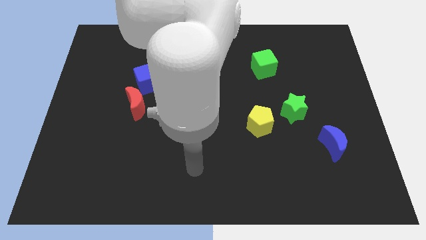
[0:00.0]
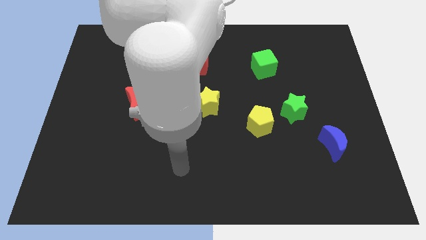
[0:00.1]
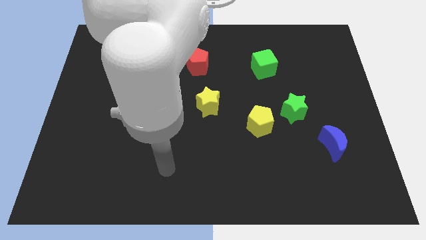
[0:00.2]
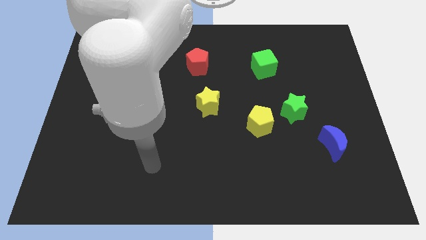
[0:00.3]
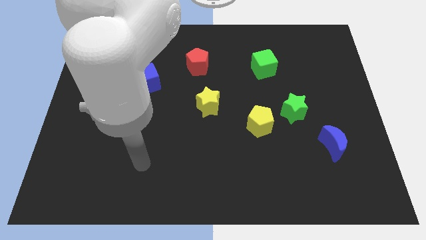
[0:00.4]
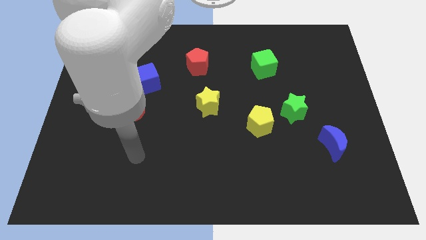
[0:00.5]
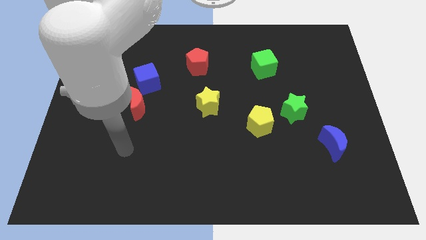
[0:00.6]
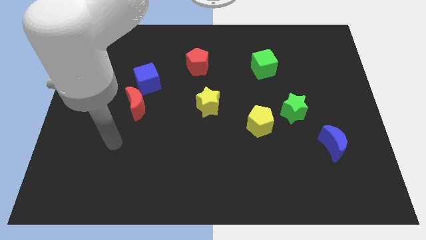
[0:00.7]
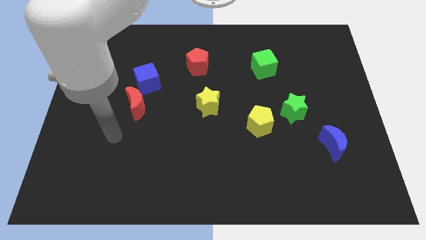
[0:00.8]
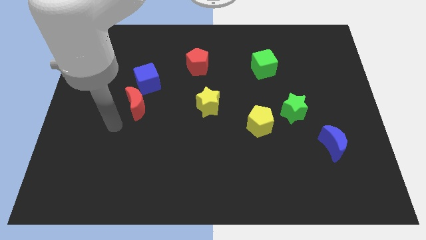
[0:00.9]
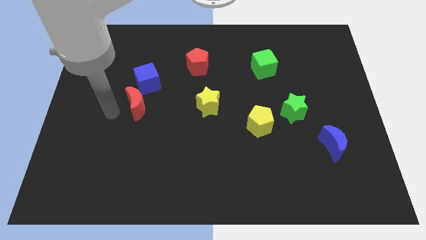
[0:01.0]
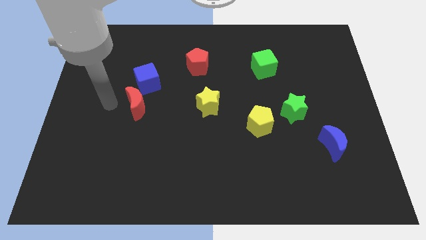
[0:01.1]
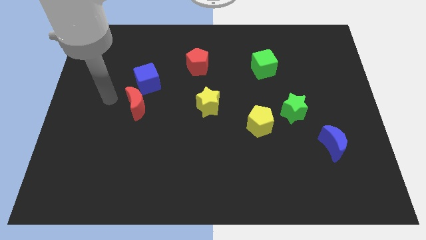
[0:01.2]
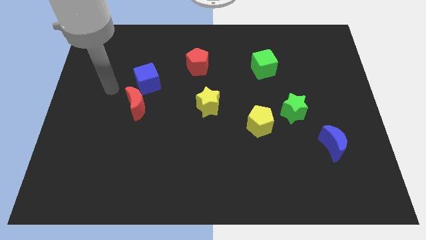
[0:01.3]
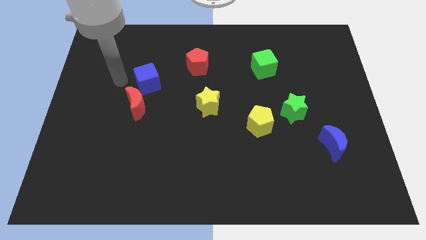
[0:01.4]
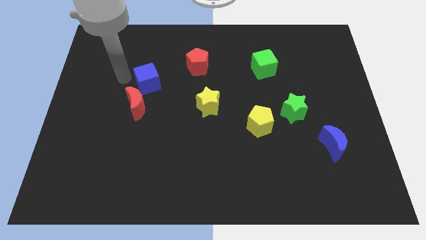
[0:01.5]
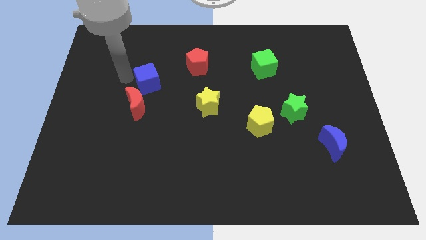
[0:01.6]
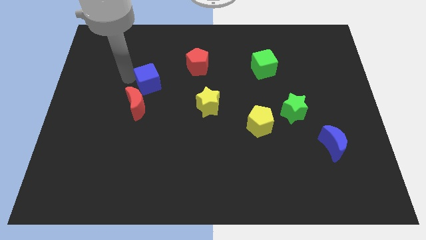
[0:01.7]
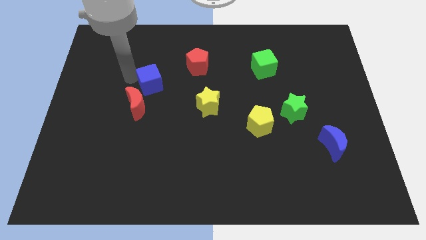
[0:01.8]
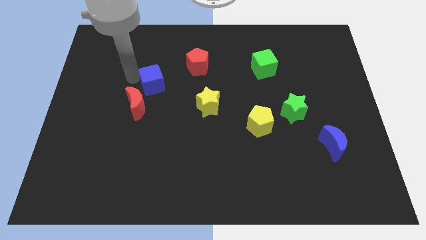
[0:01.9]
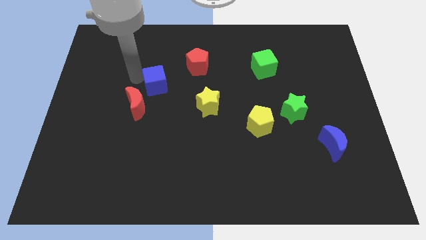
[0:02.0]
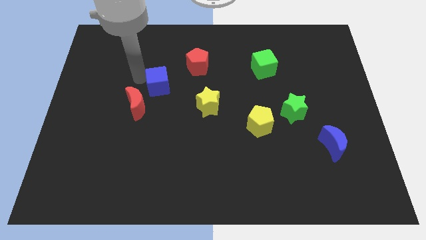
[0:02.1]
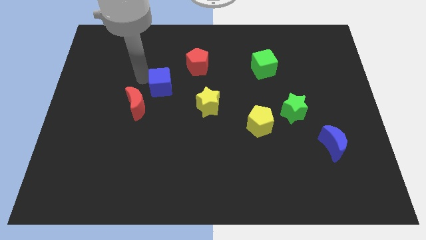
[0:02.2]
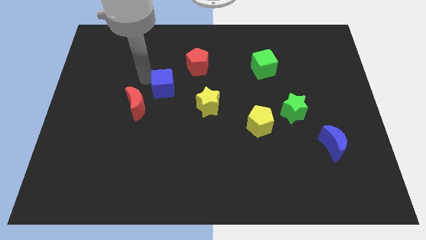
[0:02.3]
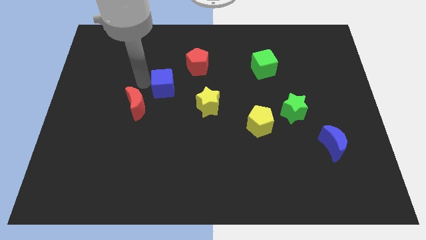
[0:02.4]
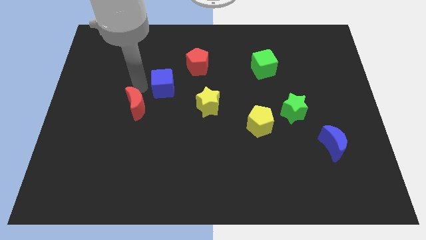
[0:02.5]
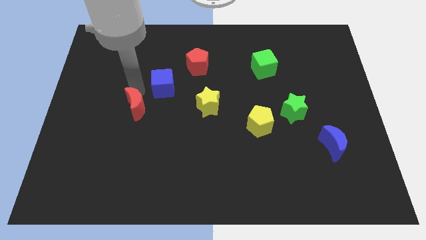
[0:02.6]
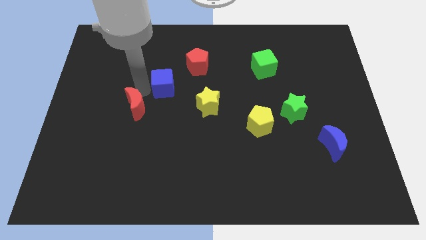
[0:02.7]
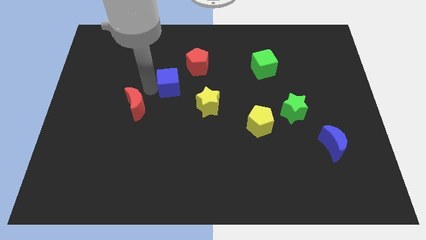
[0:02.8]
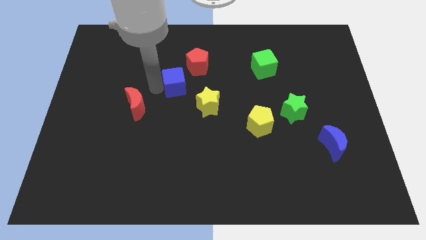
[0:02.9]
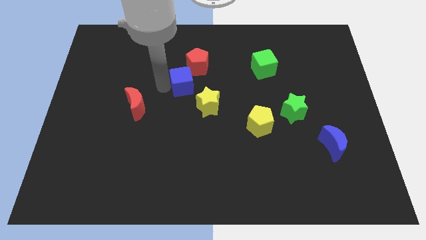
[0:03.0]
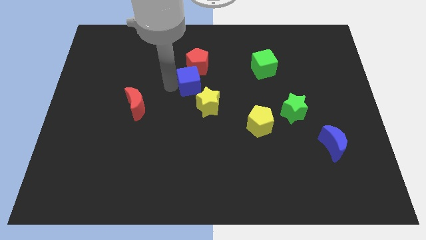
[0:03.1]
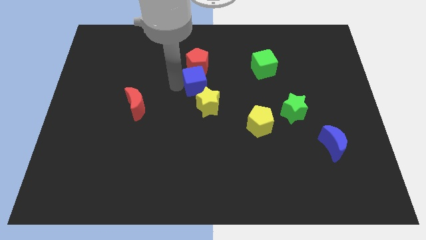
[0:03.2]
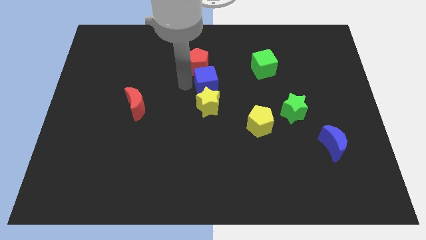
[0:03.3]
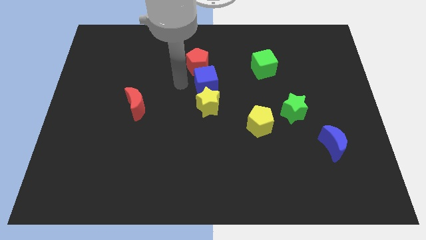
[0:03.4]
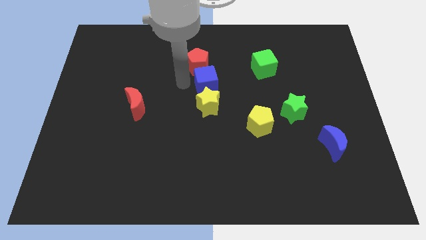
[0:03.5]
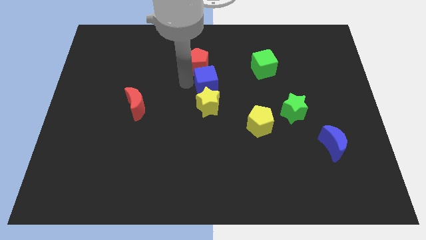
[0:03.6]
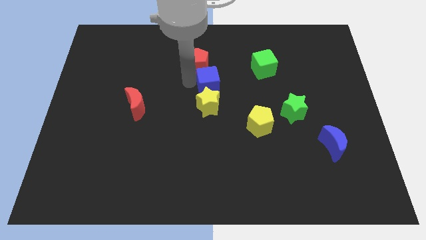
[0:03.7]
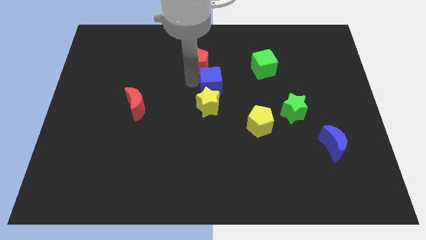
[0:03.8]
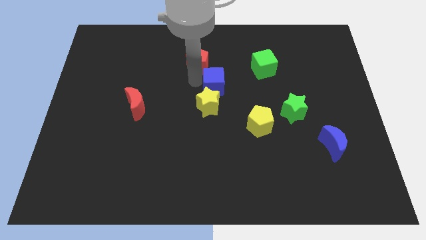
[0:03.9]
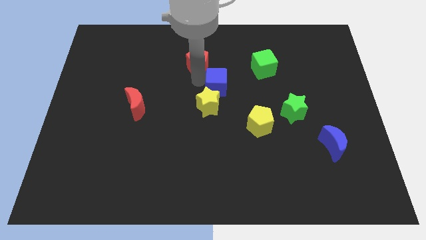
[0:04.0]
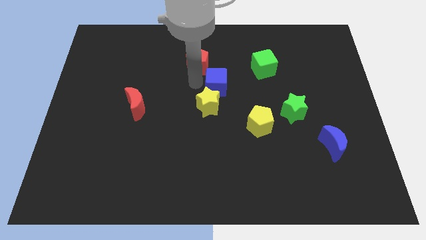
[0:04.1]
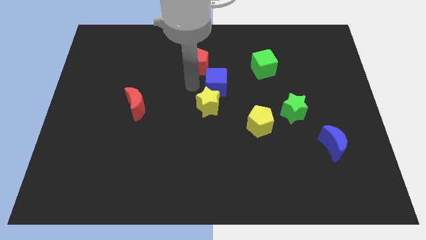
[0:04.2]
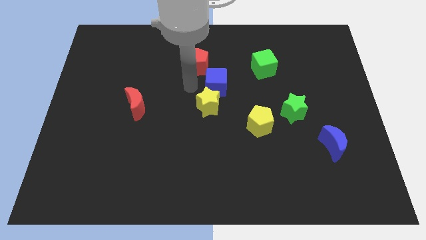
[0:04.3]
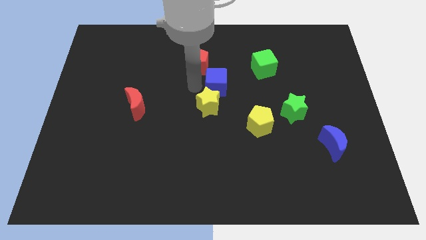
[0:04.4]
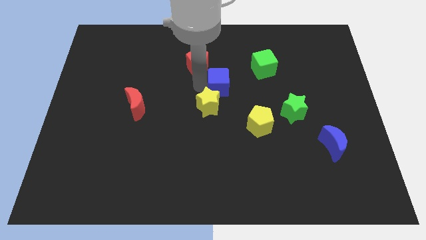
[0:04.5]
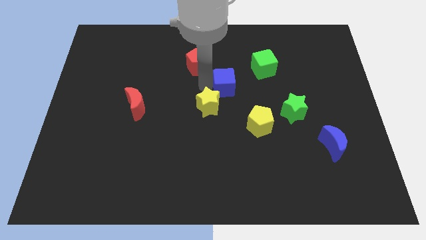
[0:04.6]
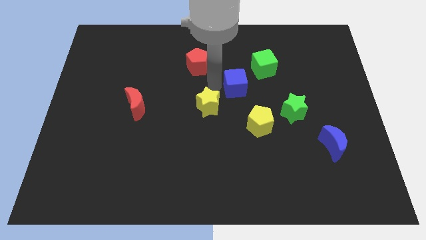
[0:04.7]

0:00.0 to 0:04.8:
slide the blue cube to the right

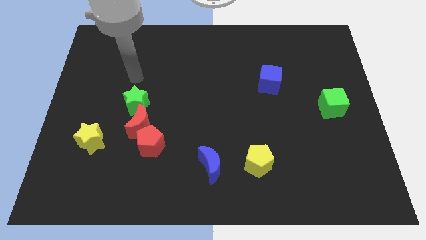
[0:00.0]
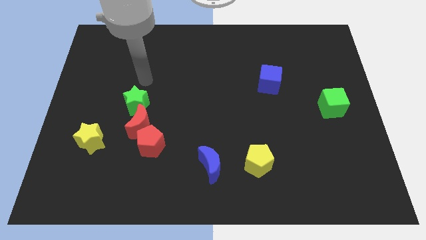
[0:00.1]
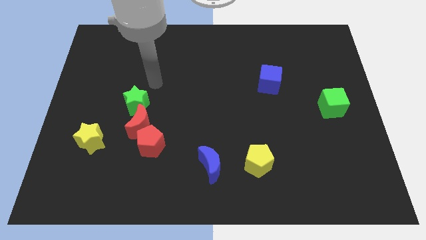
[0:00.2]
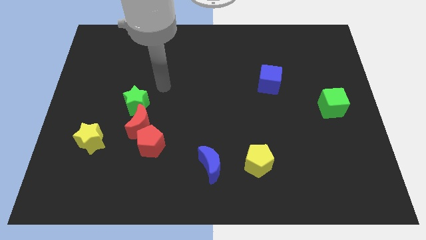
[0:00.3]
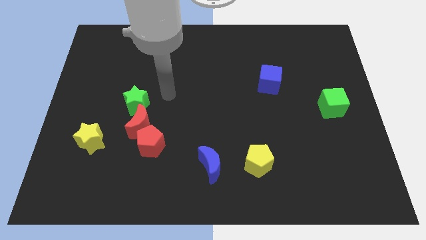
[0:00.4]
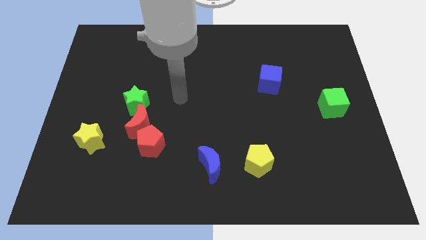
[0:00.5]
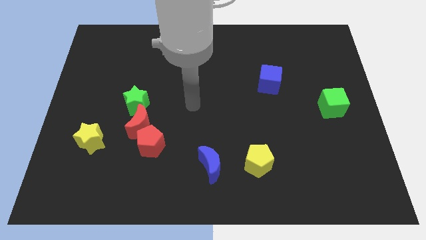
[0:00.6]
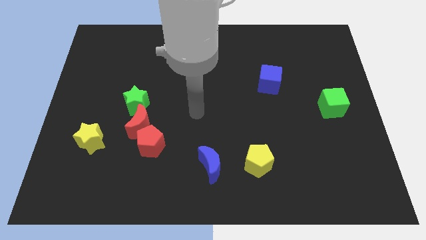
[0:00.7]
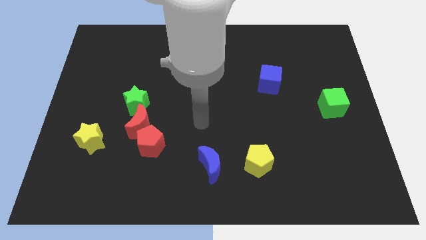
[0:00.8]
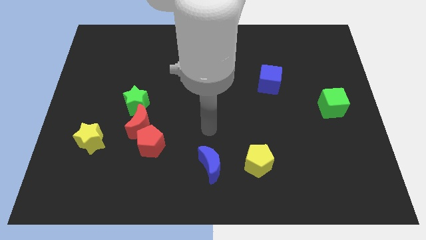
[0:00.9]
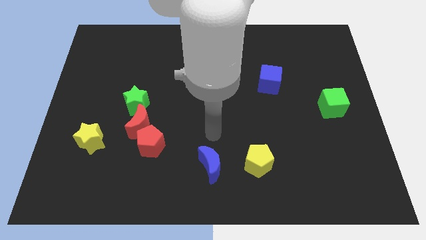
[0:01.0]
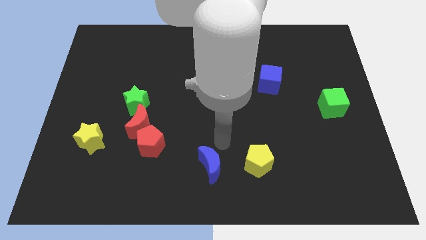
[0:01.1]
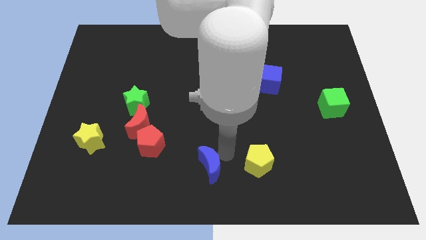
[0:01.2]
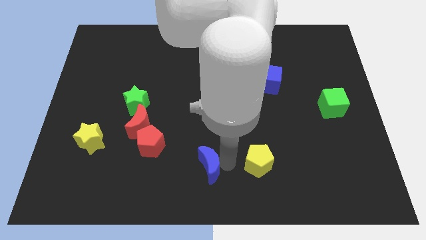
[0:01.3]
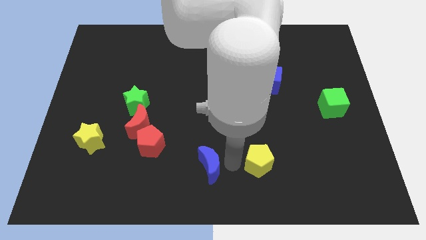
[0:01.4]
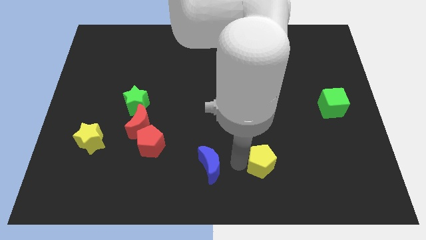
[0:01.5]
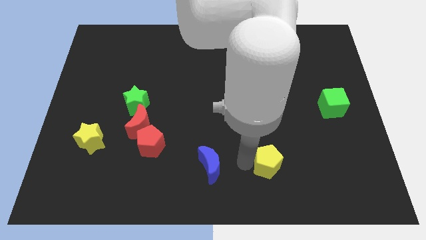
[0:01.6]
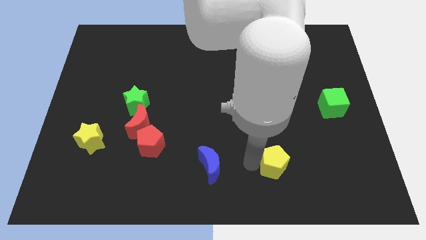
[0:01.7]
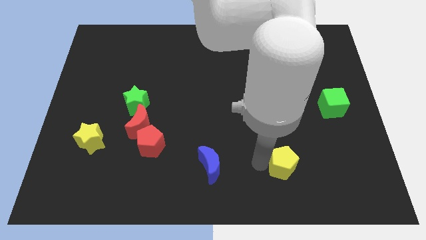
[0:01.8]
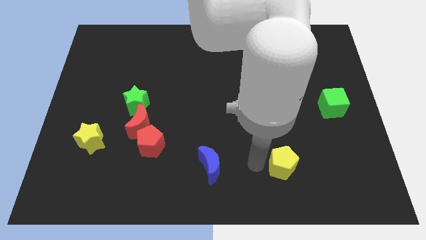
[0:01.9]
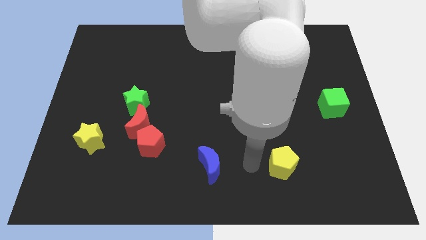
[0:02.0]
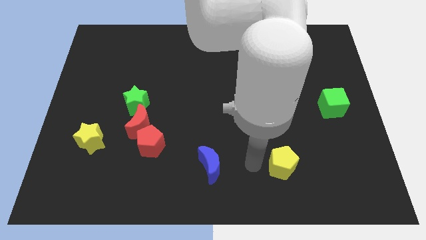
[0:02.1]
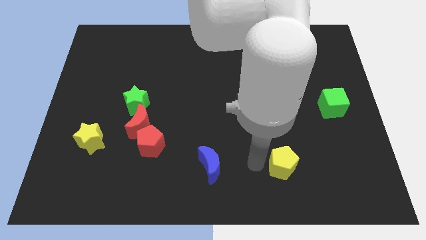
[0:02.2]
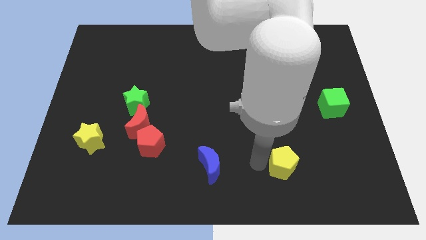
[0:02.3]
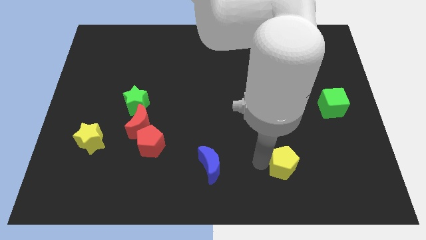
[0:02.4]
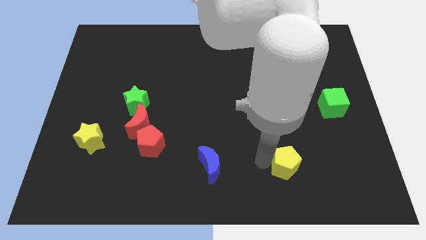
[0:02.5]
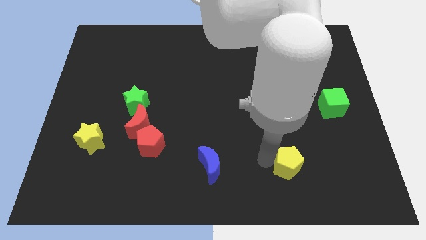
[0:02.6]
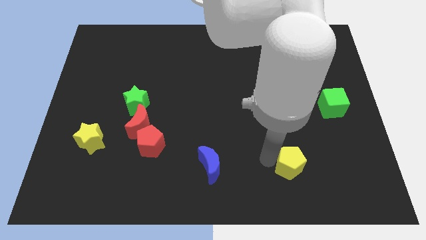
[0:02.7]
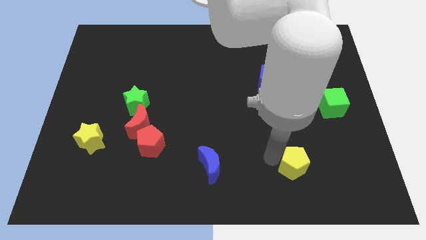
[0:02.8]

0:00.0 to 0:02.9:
push the yellow pentagon right a little

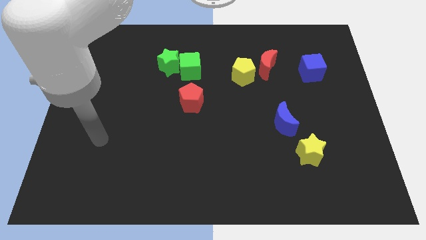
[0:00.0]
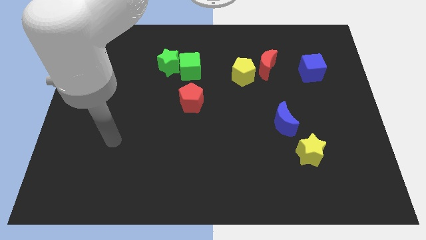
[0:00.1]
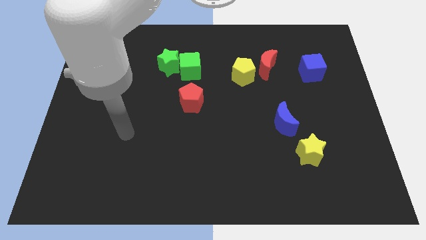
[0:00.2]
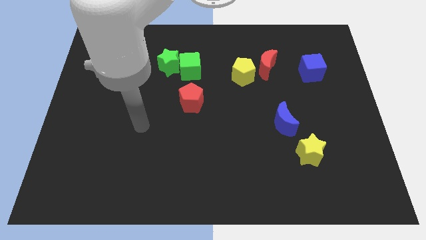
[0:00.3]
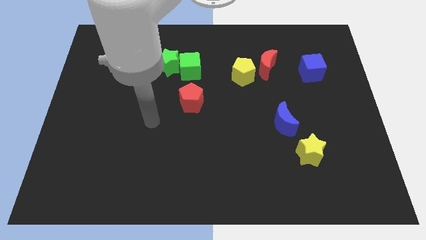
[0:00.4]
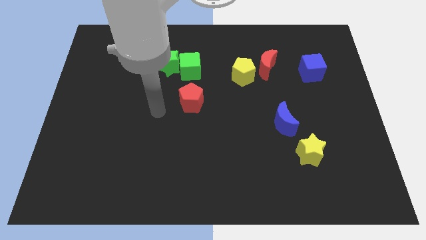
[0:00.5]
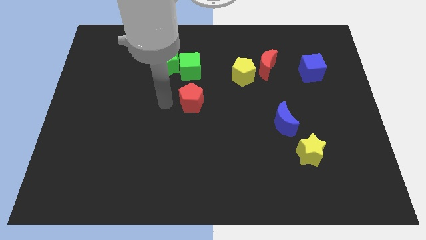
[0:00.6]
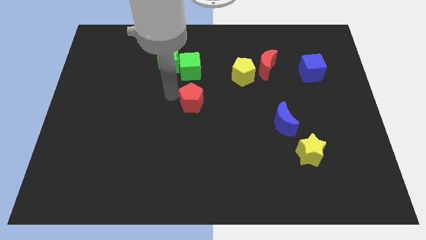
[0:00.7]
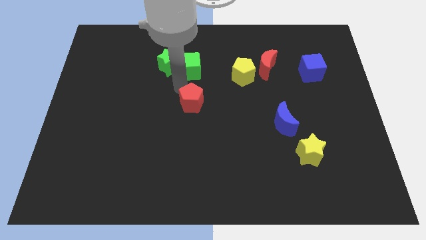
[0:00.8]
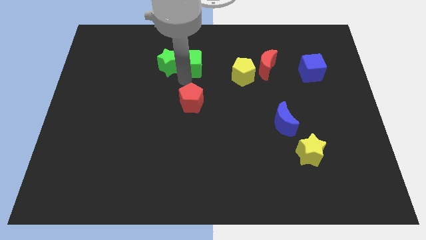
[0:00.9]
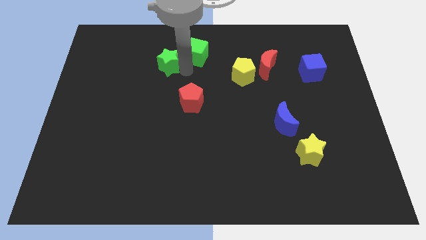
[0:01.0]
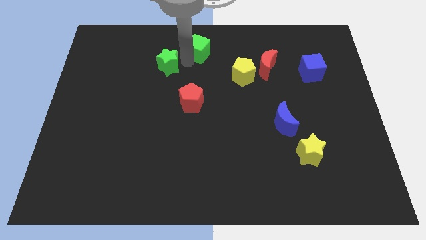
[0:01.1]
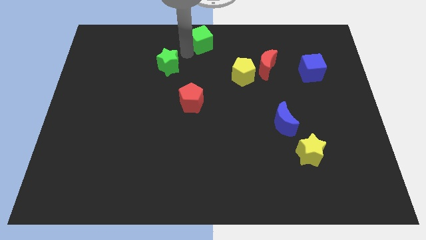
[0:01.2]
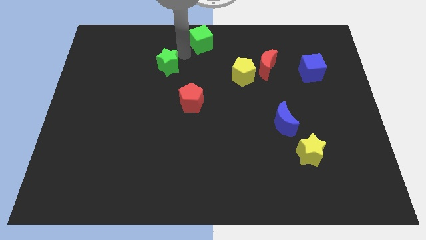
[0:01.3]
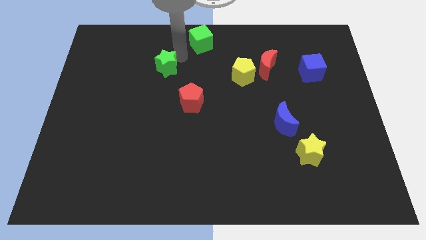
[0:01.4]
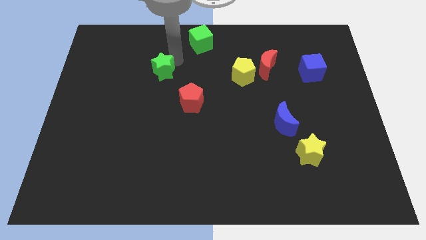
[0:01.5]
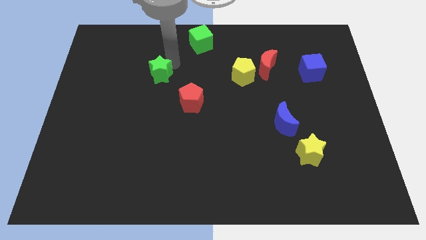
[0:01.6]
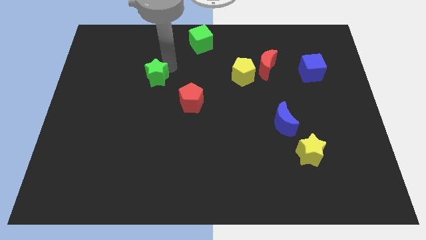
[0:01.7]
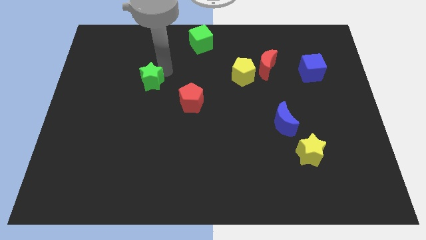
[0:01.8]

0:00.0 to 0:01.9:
slightly slide the green star downwards and then to the left
